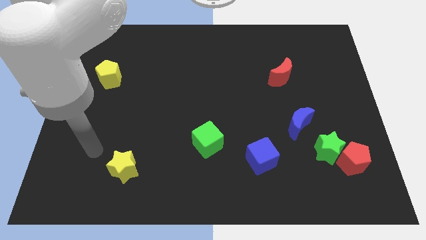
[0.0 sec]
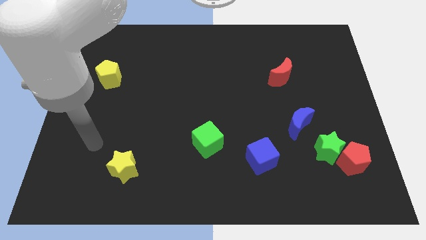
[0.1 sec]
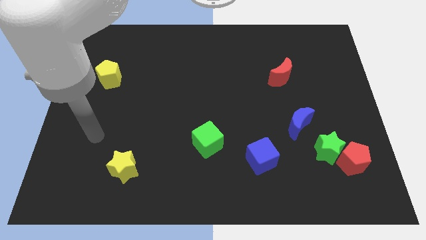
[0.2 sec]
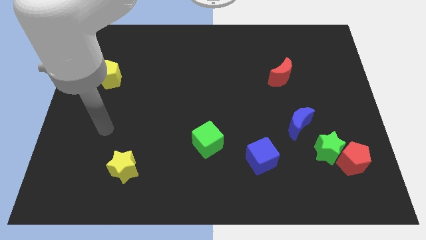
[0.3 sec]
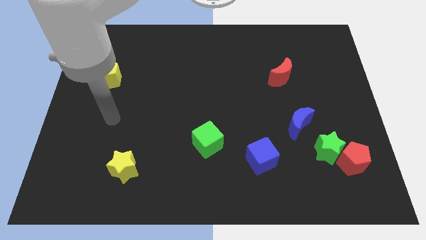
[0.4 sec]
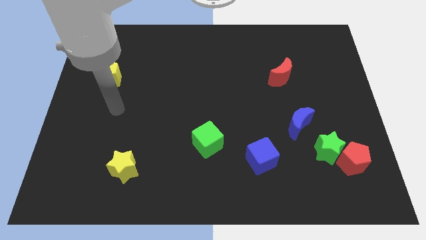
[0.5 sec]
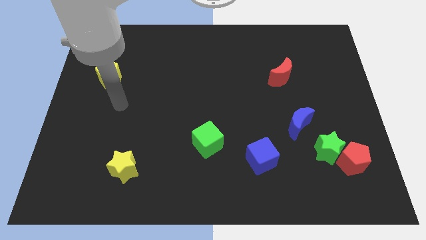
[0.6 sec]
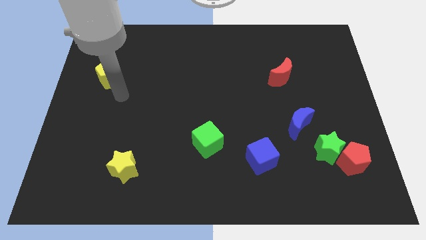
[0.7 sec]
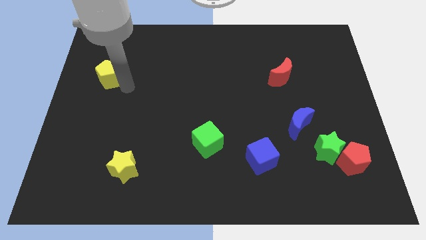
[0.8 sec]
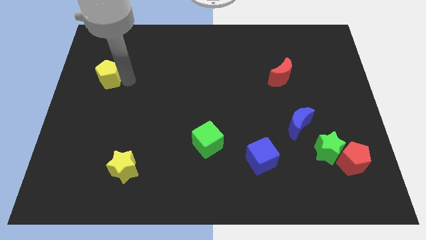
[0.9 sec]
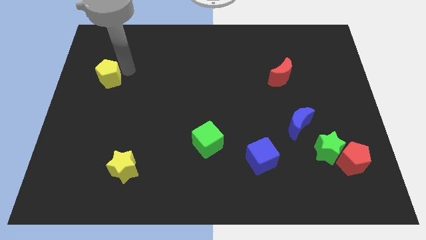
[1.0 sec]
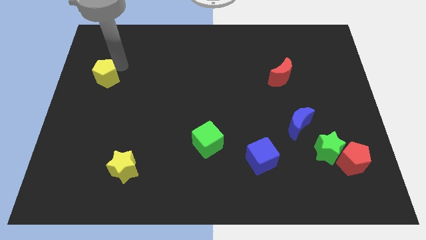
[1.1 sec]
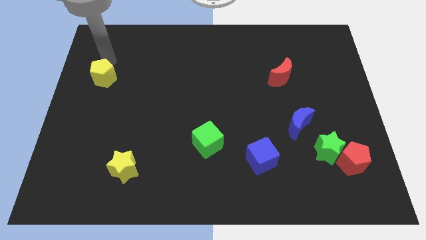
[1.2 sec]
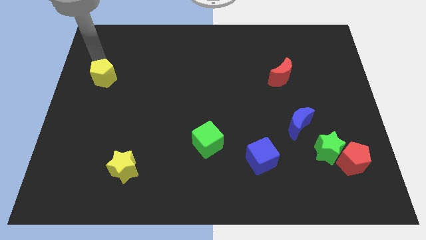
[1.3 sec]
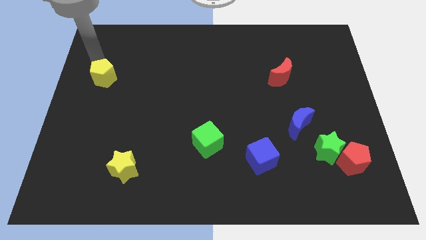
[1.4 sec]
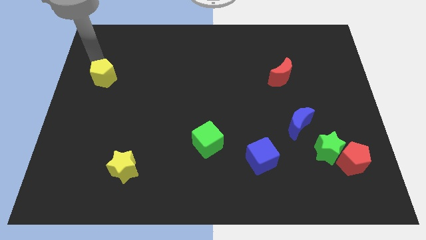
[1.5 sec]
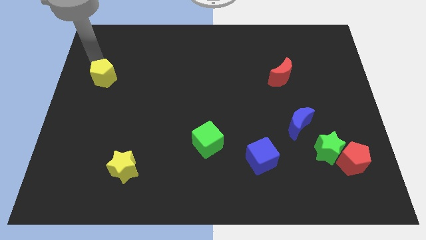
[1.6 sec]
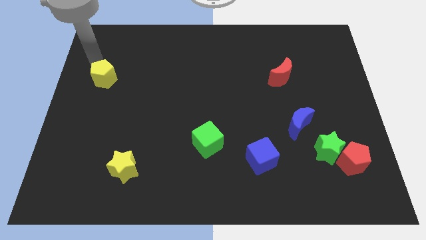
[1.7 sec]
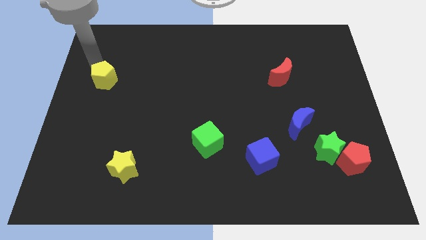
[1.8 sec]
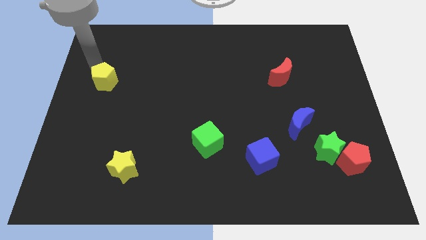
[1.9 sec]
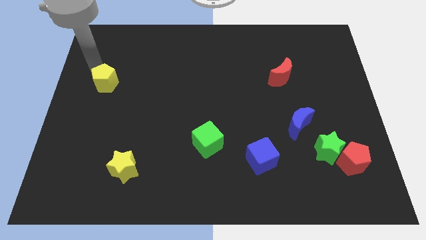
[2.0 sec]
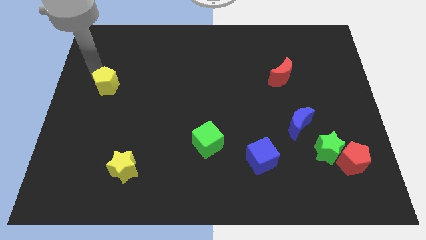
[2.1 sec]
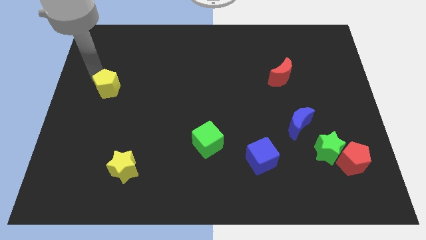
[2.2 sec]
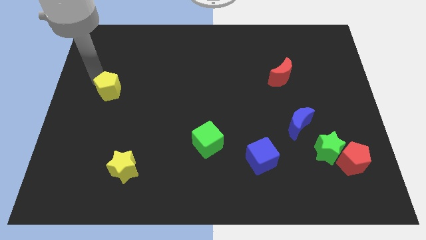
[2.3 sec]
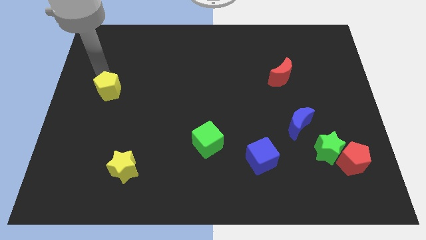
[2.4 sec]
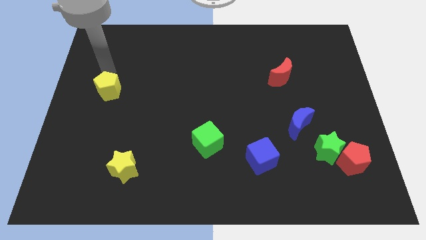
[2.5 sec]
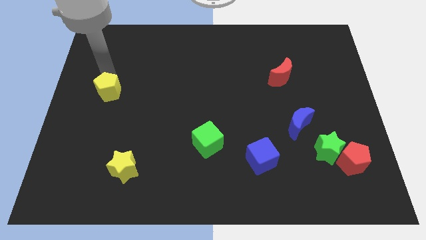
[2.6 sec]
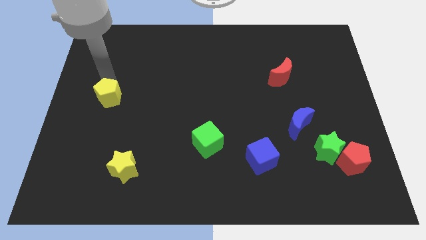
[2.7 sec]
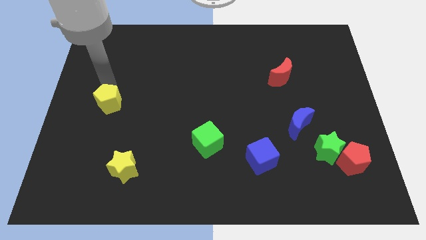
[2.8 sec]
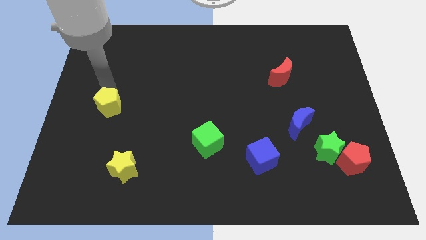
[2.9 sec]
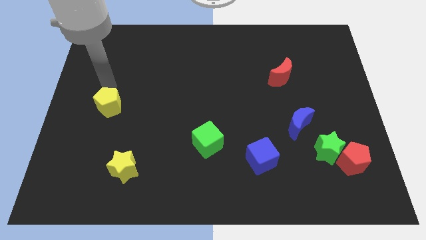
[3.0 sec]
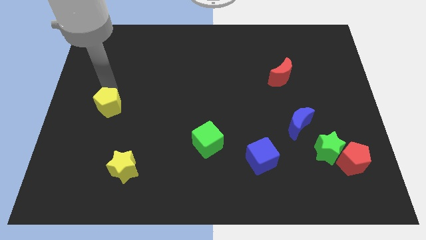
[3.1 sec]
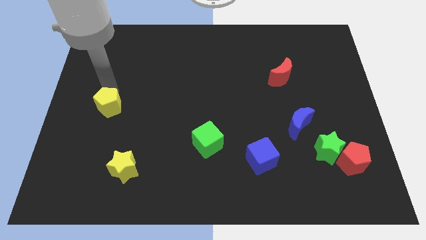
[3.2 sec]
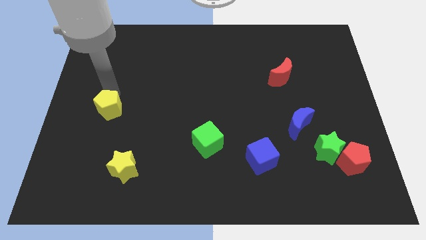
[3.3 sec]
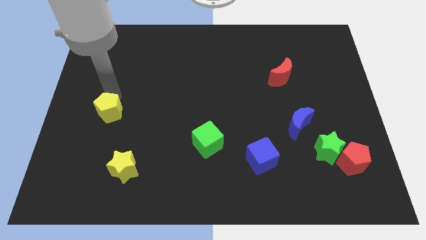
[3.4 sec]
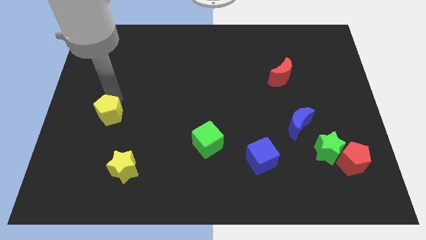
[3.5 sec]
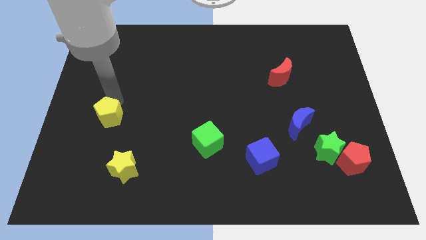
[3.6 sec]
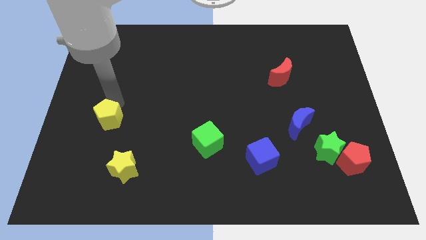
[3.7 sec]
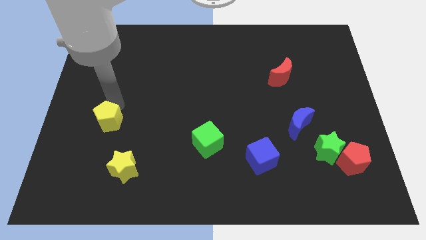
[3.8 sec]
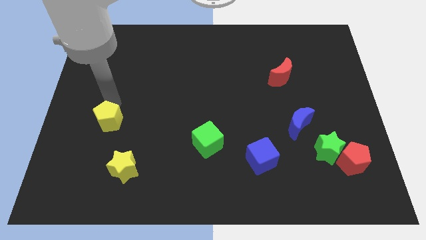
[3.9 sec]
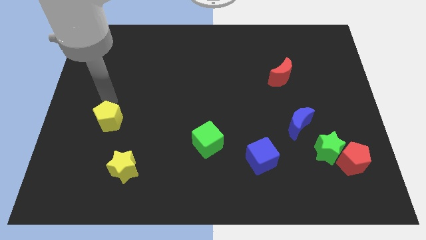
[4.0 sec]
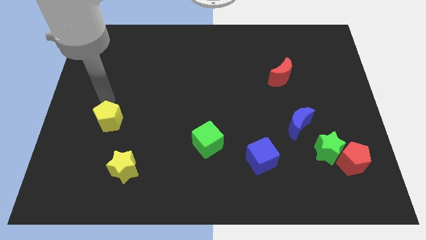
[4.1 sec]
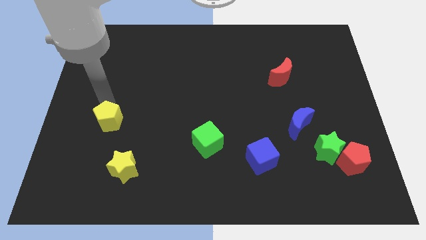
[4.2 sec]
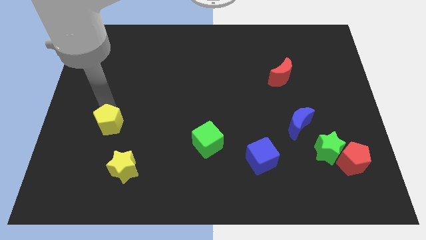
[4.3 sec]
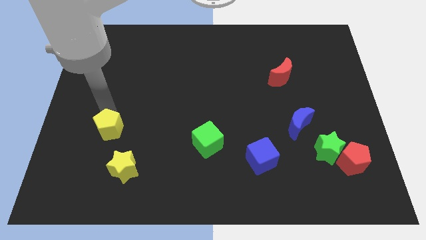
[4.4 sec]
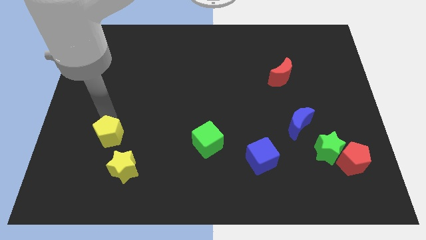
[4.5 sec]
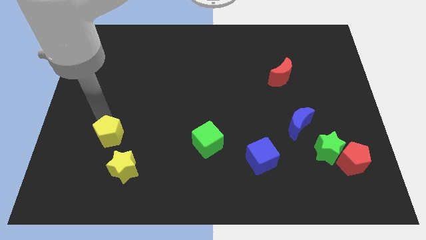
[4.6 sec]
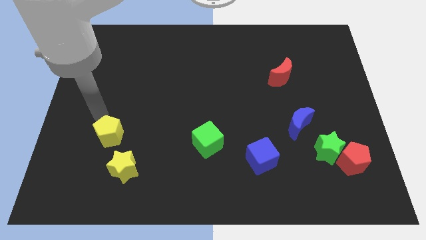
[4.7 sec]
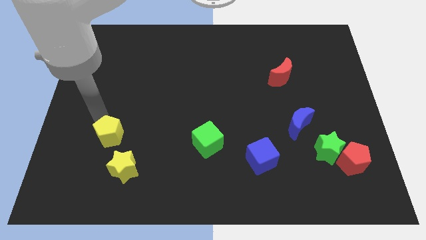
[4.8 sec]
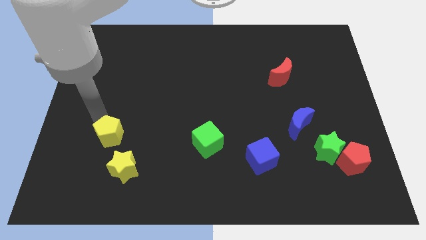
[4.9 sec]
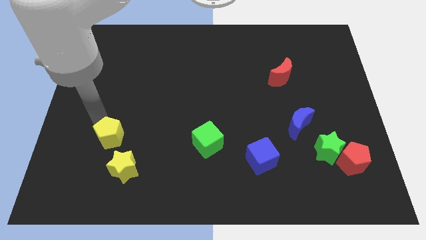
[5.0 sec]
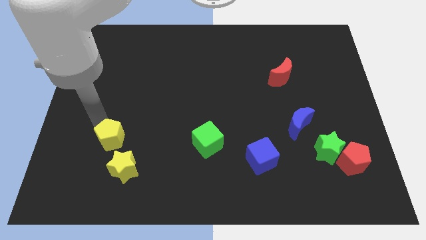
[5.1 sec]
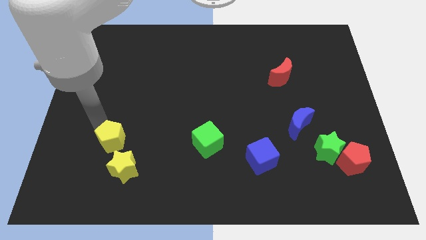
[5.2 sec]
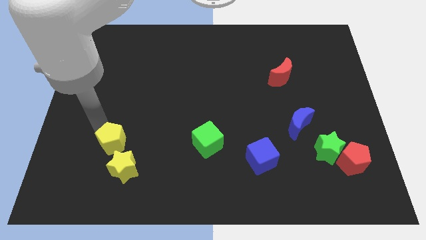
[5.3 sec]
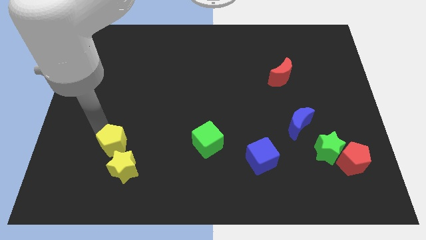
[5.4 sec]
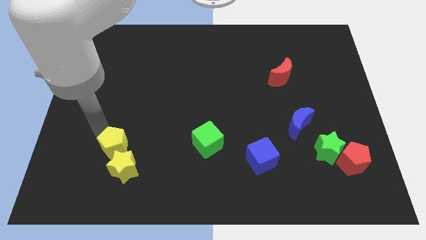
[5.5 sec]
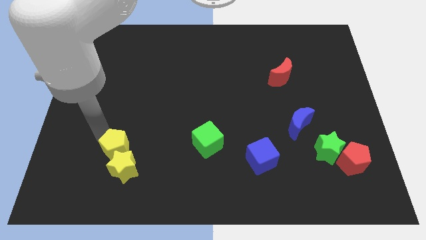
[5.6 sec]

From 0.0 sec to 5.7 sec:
push the yellow pentagon towards the yellow star
